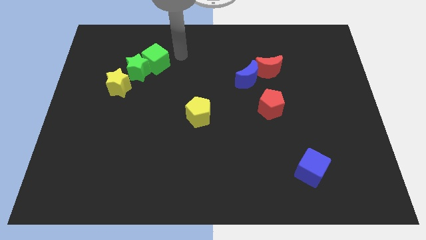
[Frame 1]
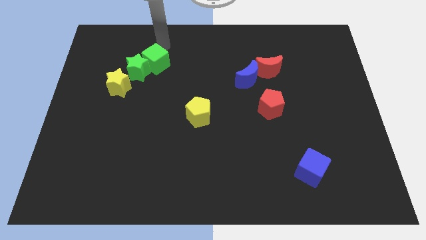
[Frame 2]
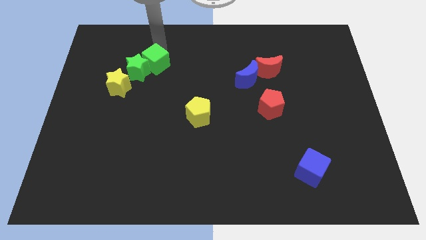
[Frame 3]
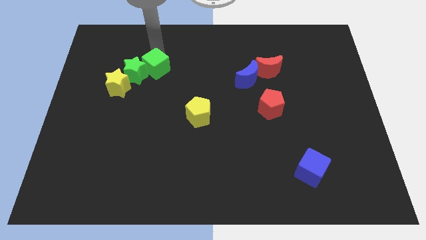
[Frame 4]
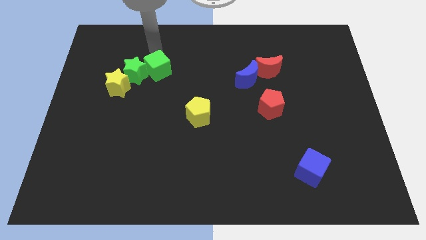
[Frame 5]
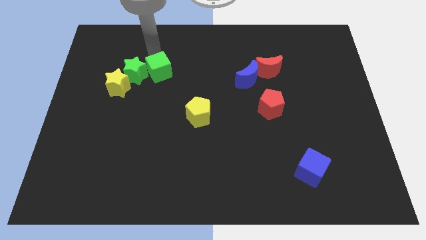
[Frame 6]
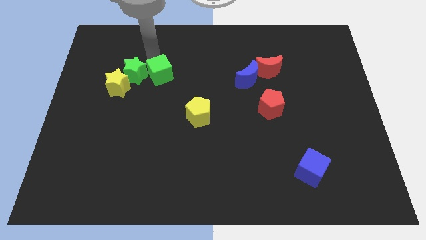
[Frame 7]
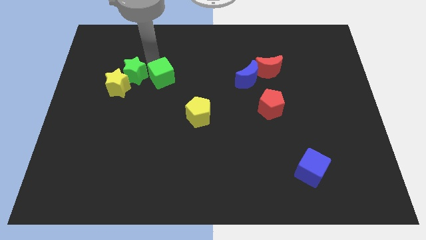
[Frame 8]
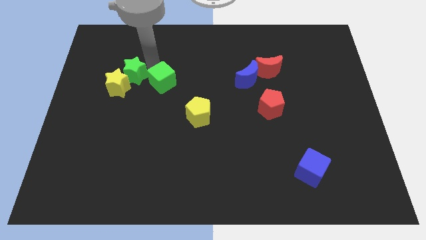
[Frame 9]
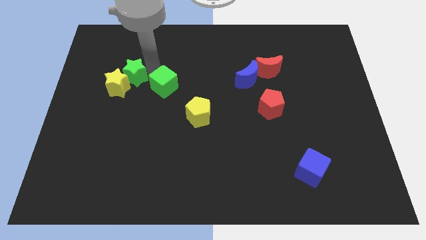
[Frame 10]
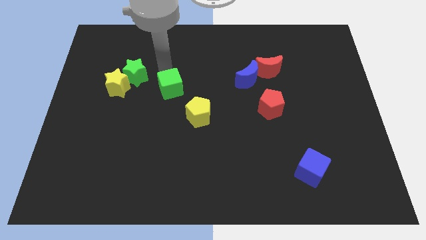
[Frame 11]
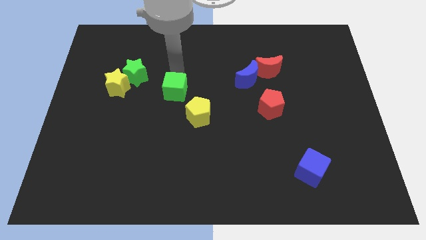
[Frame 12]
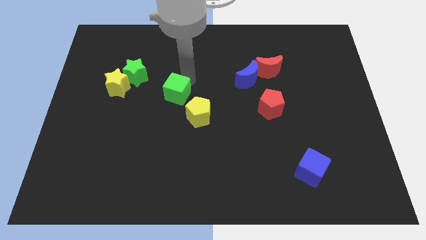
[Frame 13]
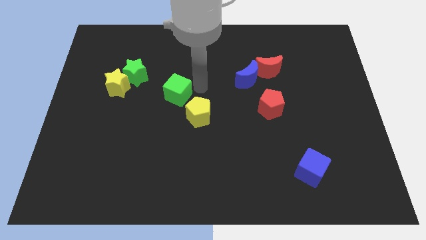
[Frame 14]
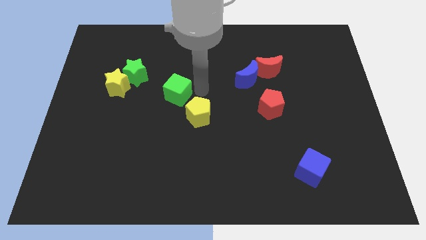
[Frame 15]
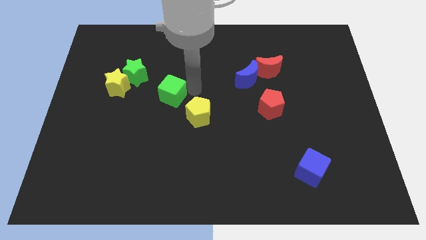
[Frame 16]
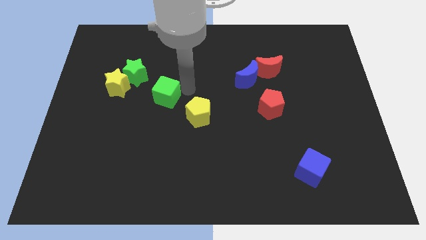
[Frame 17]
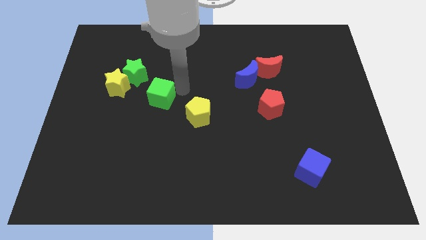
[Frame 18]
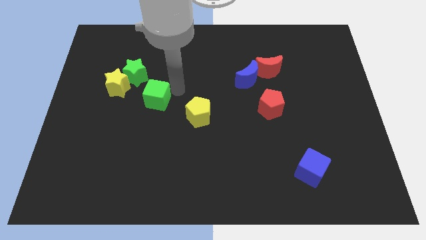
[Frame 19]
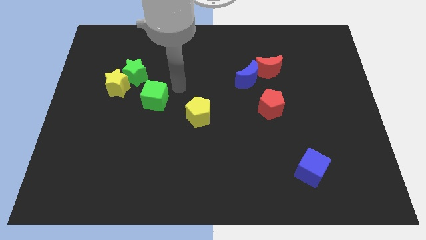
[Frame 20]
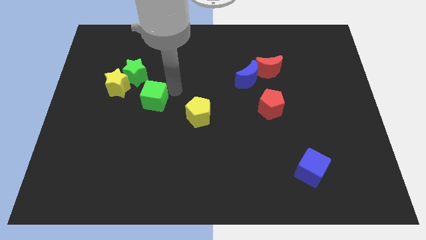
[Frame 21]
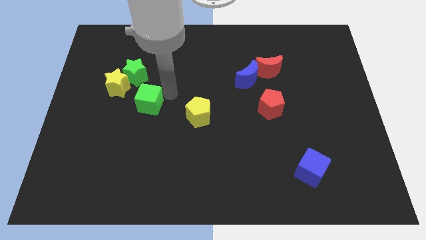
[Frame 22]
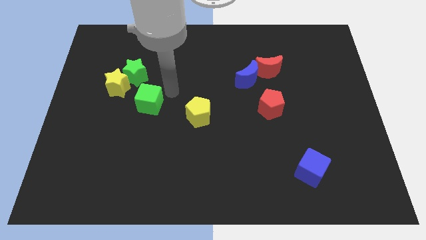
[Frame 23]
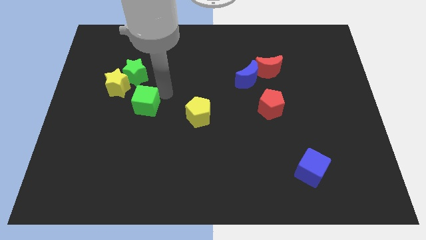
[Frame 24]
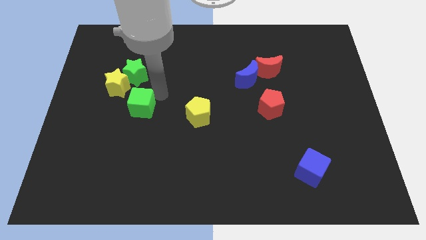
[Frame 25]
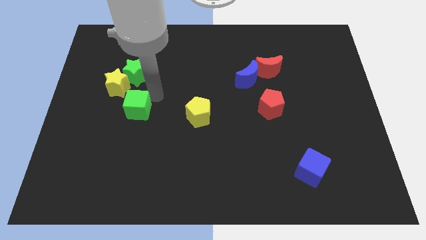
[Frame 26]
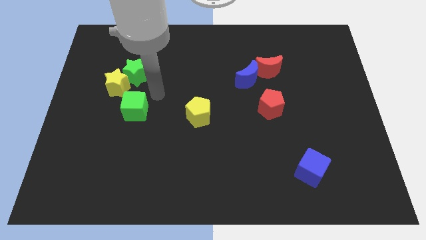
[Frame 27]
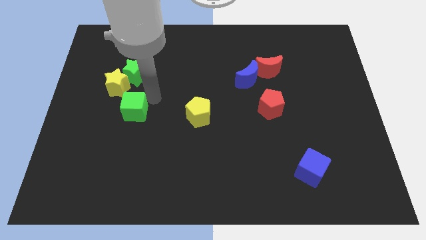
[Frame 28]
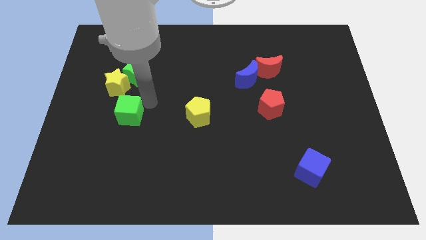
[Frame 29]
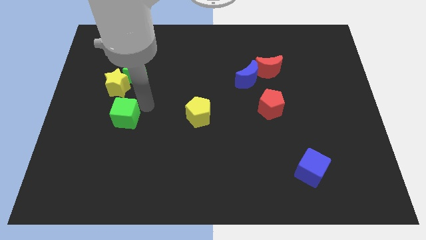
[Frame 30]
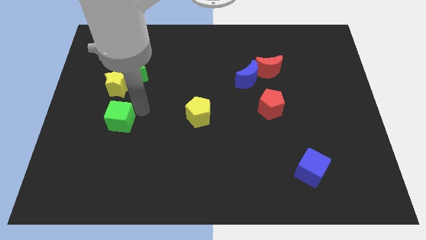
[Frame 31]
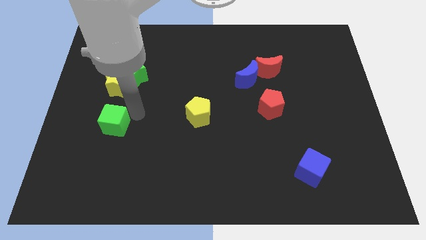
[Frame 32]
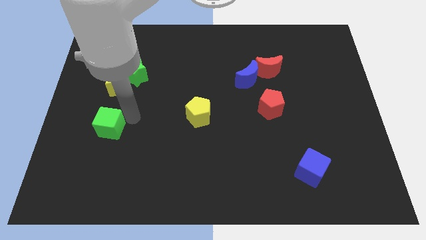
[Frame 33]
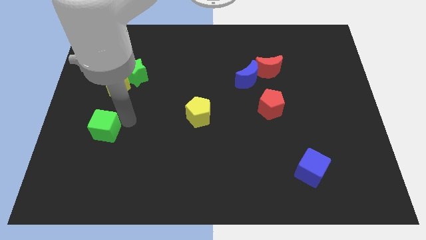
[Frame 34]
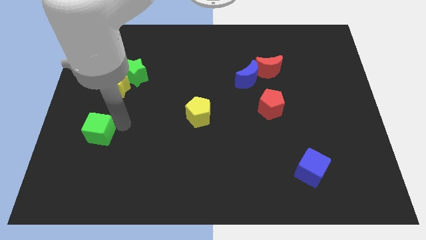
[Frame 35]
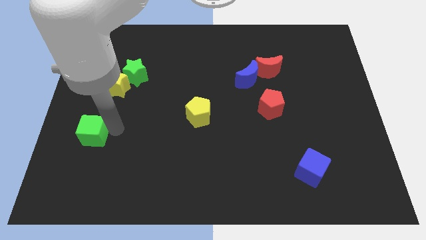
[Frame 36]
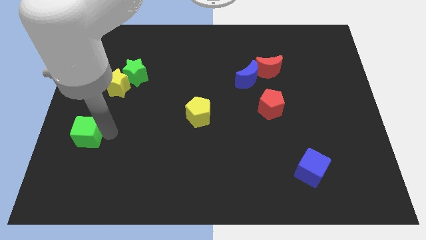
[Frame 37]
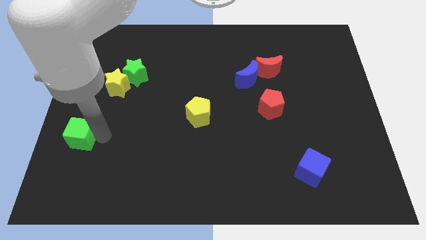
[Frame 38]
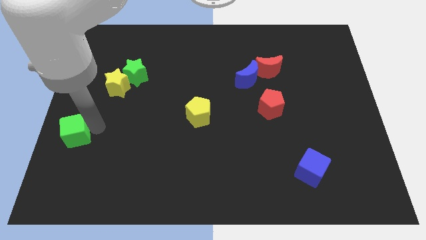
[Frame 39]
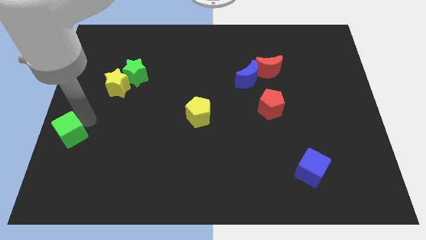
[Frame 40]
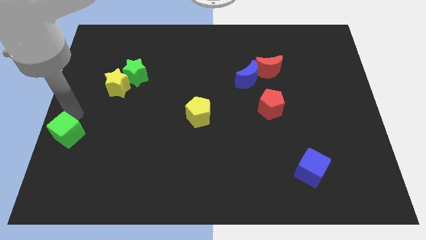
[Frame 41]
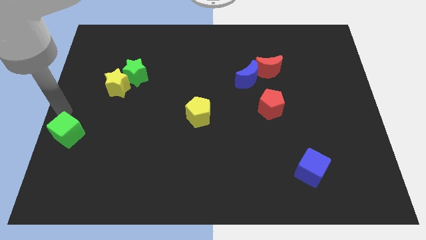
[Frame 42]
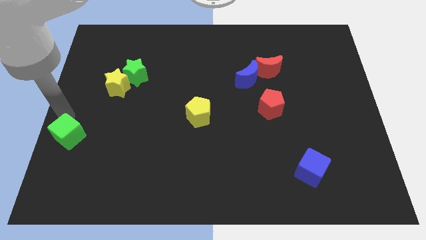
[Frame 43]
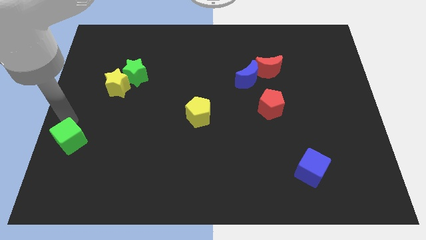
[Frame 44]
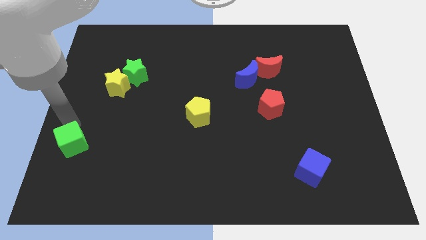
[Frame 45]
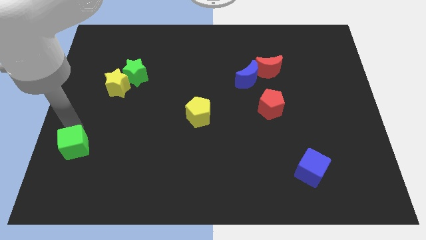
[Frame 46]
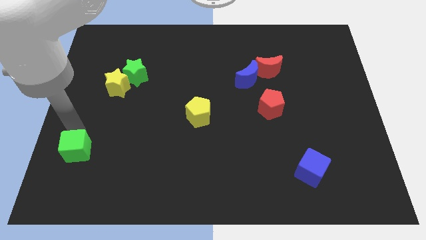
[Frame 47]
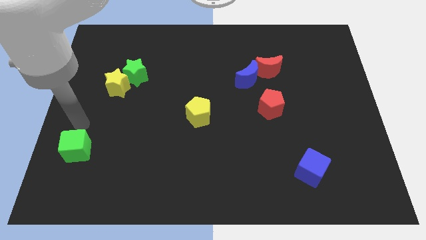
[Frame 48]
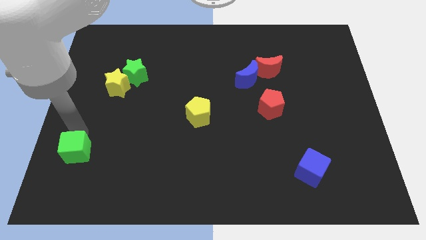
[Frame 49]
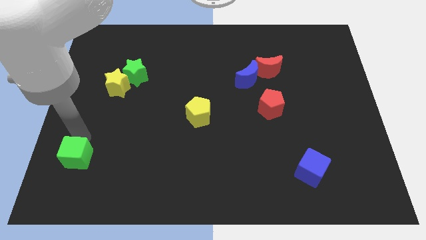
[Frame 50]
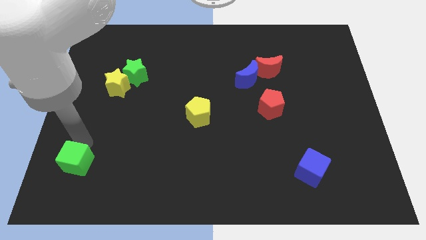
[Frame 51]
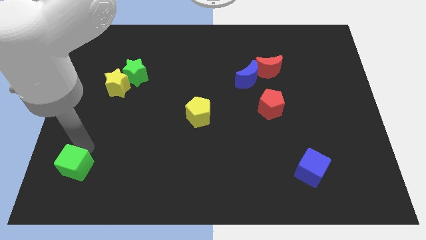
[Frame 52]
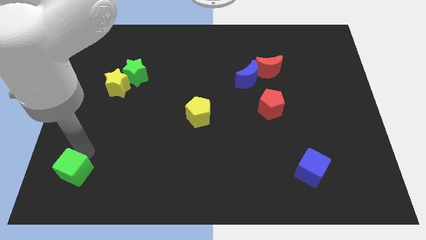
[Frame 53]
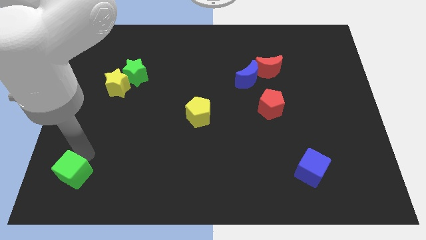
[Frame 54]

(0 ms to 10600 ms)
put the green cube to the bottom left corner

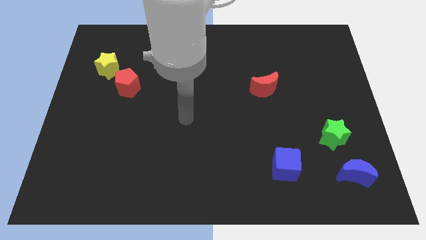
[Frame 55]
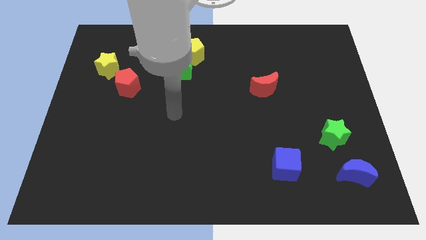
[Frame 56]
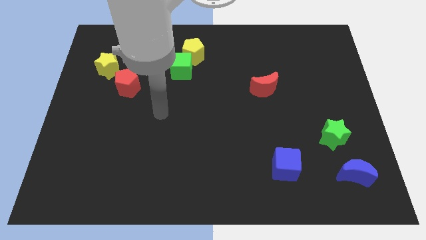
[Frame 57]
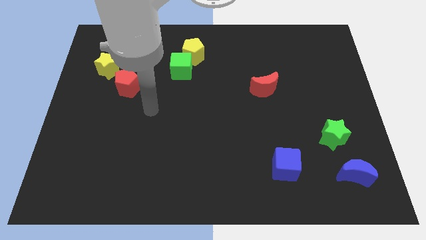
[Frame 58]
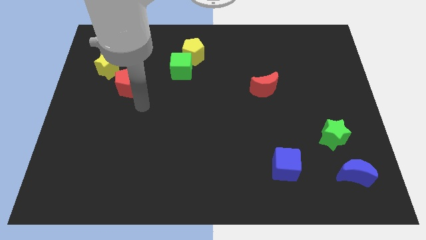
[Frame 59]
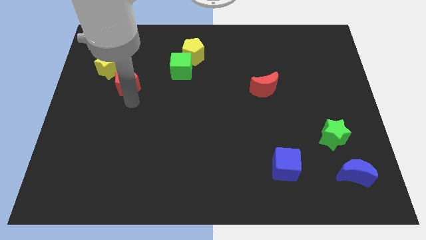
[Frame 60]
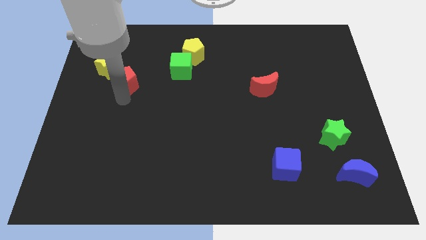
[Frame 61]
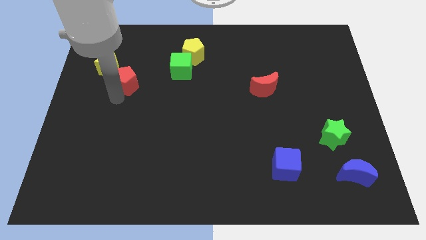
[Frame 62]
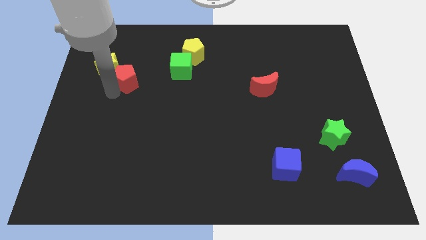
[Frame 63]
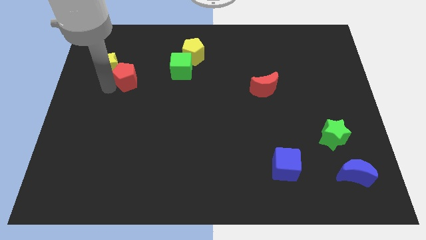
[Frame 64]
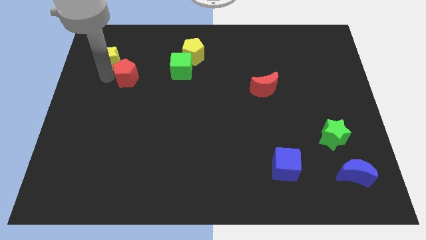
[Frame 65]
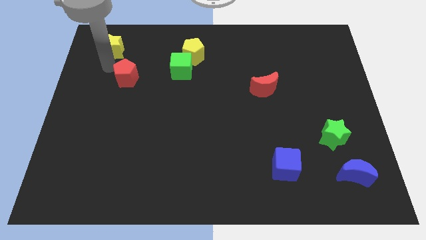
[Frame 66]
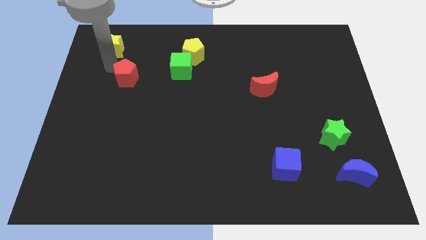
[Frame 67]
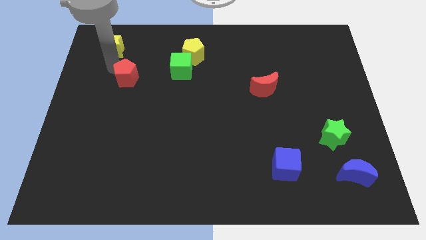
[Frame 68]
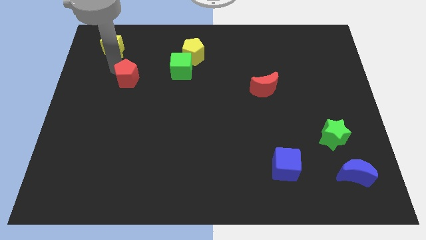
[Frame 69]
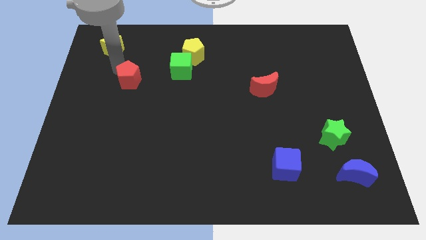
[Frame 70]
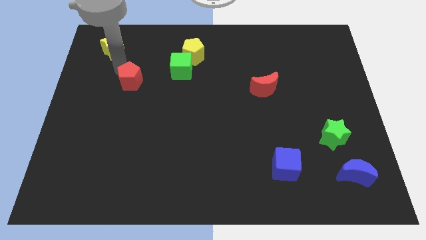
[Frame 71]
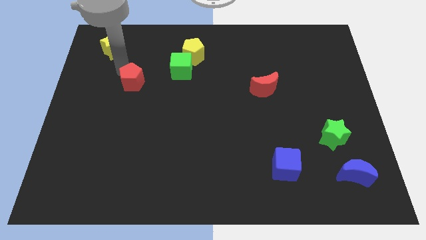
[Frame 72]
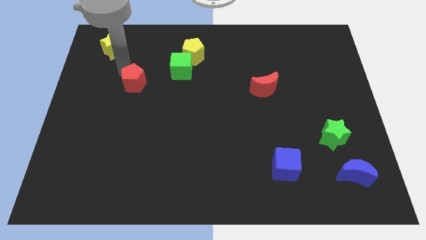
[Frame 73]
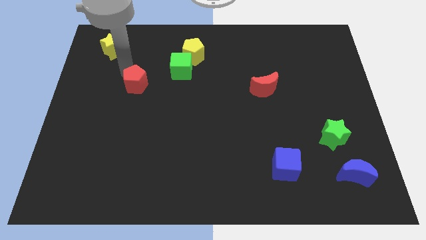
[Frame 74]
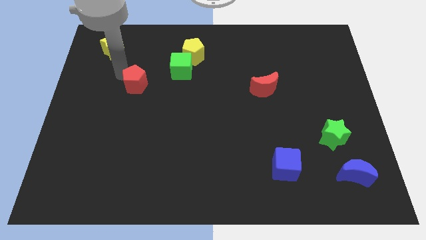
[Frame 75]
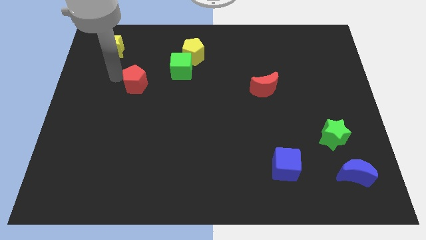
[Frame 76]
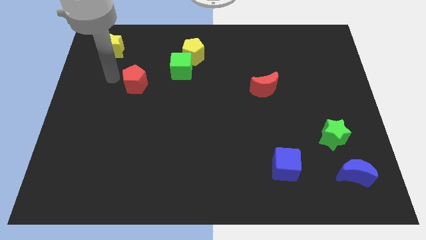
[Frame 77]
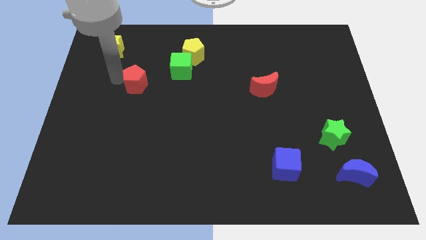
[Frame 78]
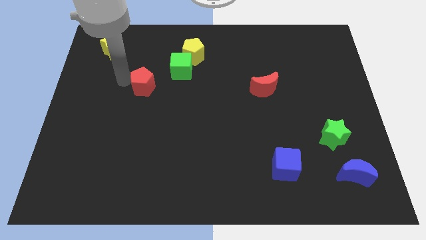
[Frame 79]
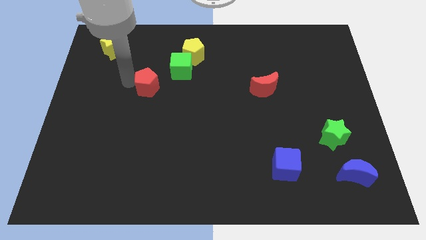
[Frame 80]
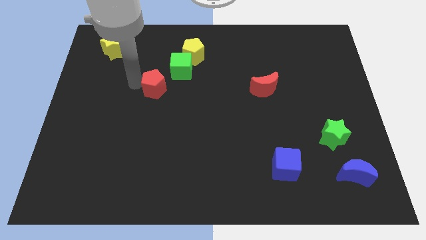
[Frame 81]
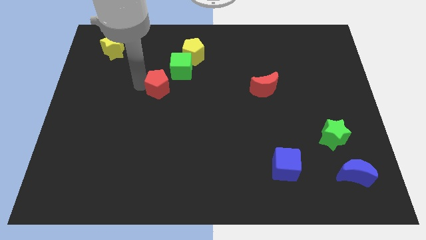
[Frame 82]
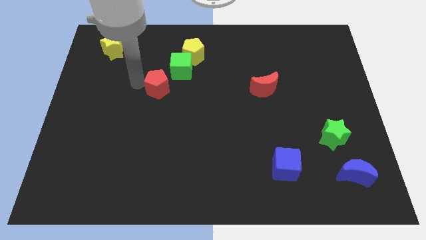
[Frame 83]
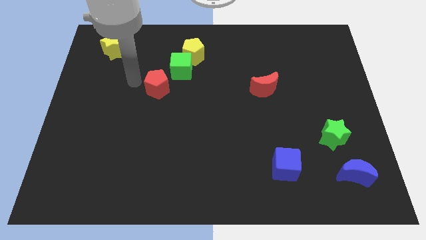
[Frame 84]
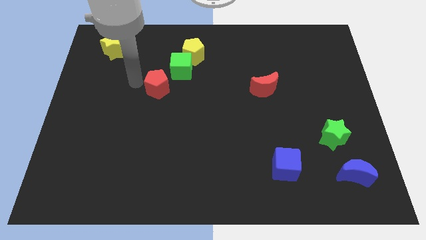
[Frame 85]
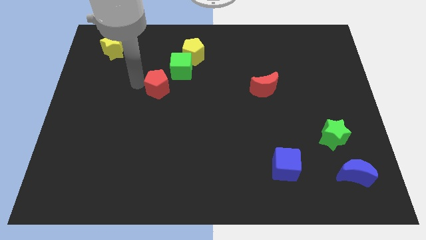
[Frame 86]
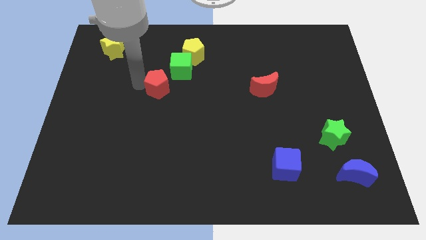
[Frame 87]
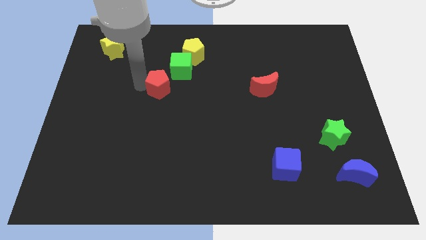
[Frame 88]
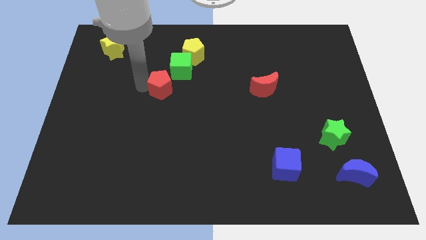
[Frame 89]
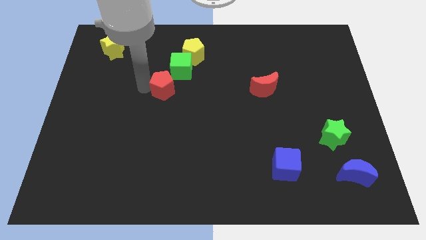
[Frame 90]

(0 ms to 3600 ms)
push the red pentagon to the center of the board
